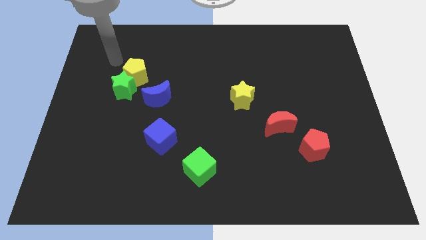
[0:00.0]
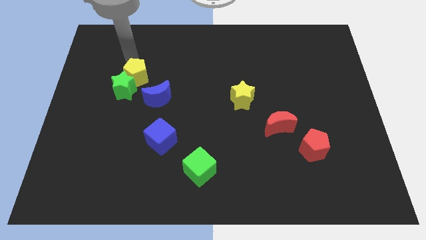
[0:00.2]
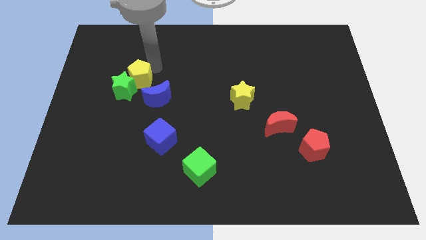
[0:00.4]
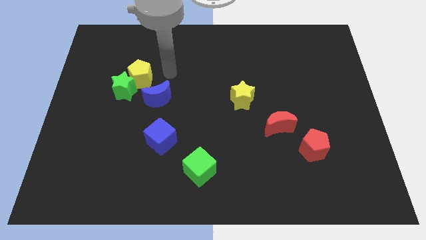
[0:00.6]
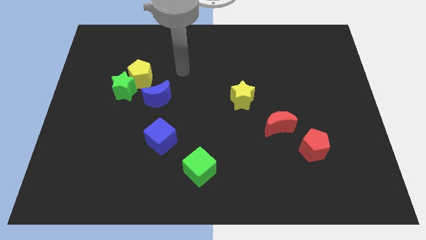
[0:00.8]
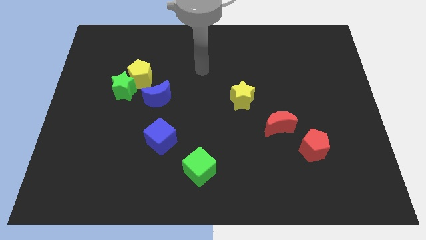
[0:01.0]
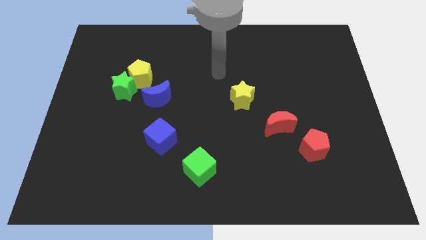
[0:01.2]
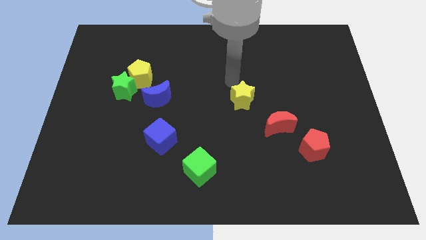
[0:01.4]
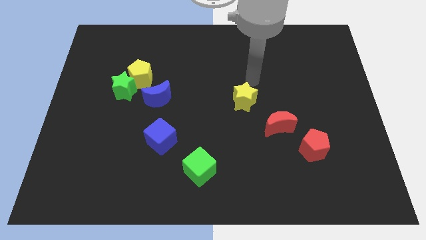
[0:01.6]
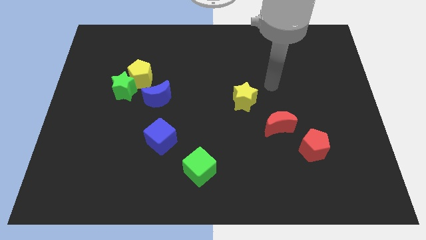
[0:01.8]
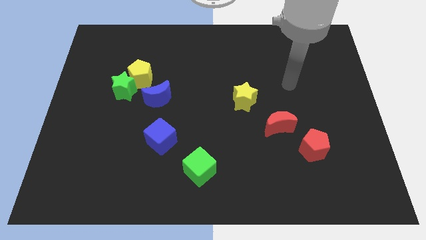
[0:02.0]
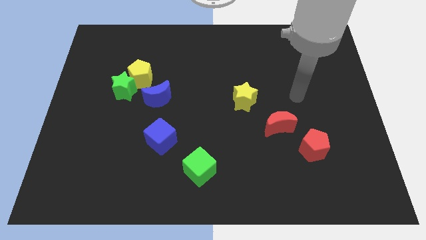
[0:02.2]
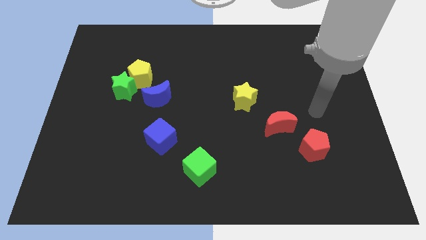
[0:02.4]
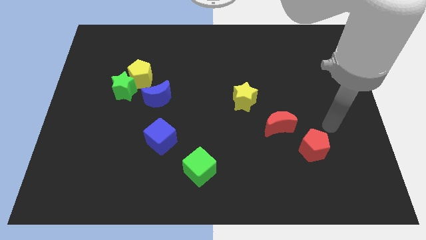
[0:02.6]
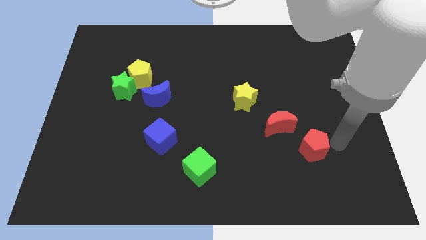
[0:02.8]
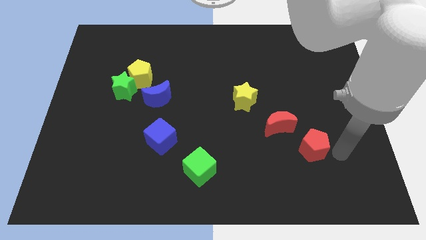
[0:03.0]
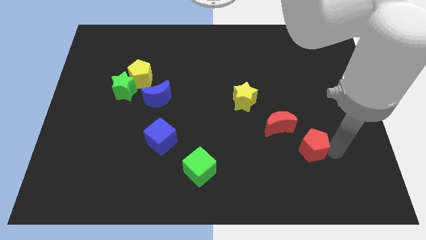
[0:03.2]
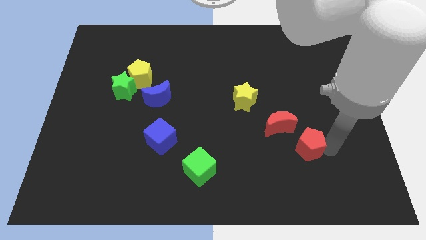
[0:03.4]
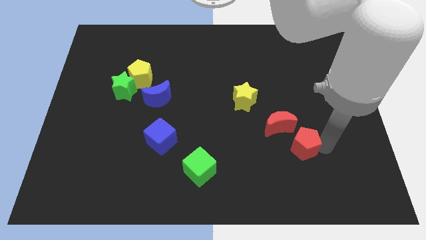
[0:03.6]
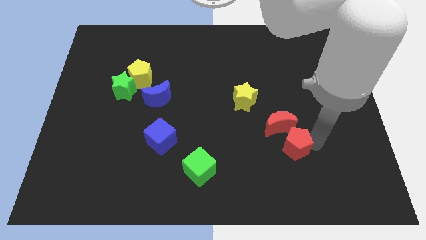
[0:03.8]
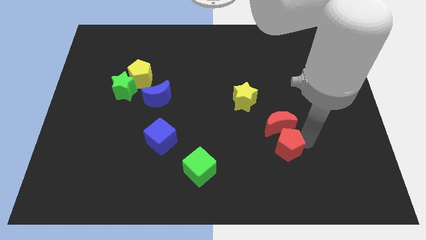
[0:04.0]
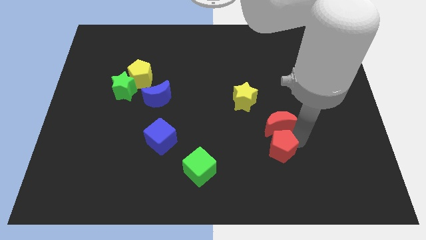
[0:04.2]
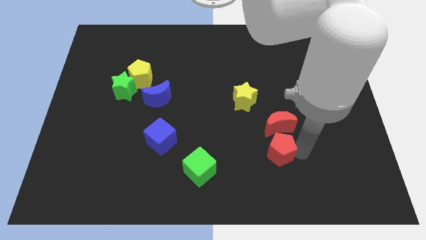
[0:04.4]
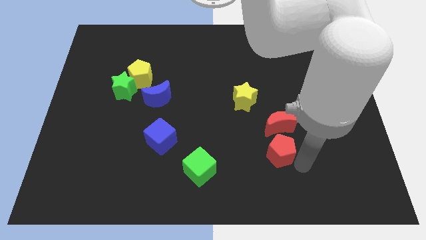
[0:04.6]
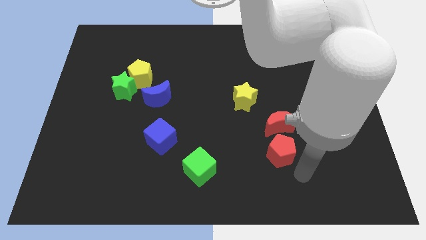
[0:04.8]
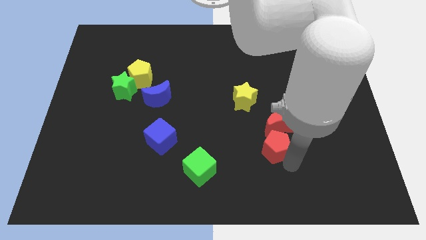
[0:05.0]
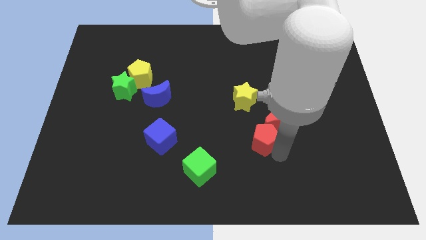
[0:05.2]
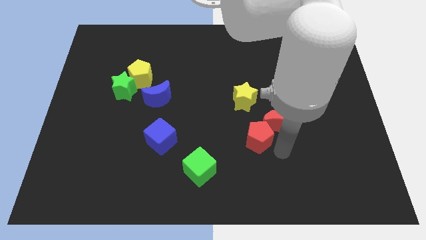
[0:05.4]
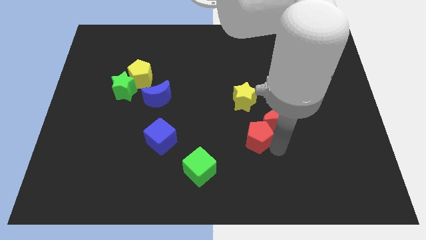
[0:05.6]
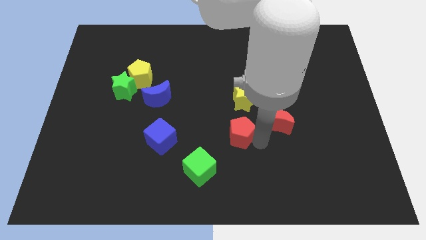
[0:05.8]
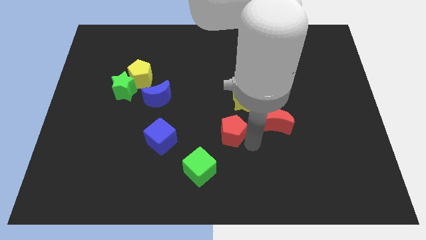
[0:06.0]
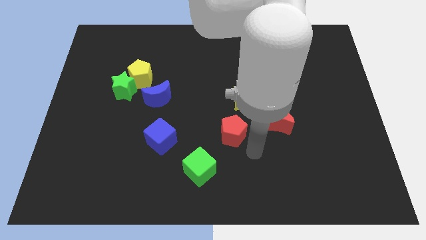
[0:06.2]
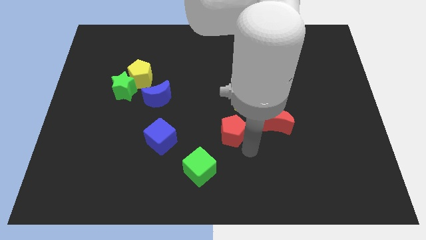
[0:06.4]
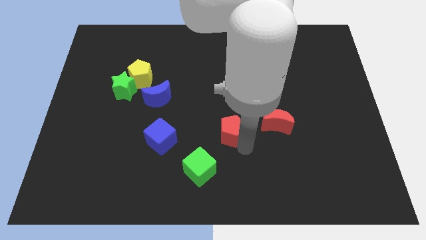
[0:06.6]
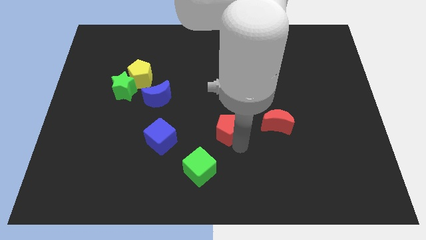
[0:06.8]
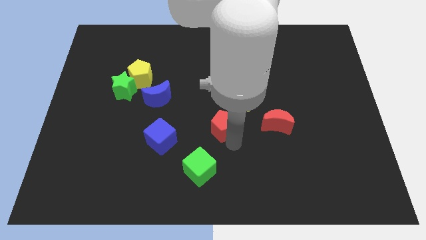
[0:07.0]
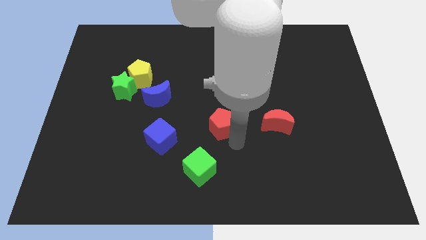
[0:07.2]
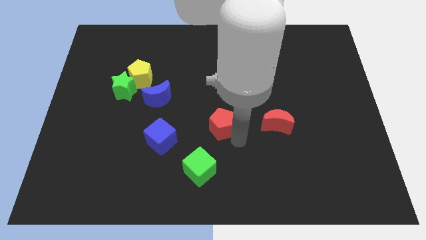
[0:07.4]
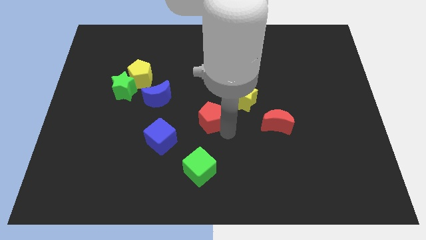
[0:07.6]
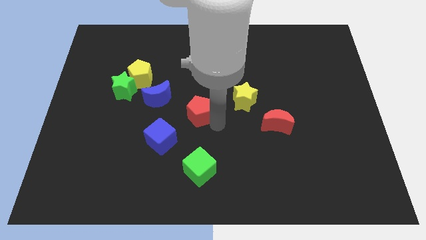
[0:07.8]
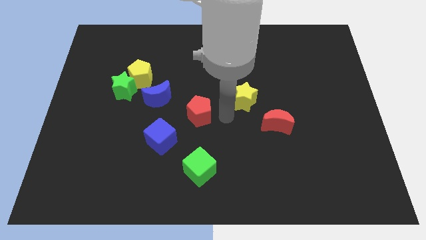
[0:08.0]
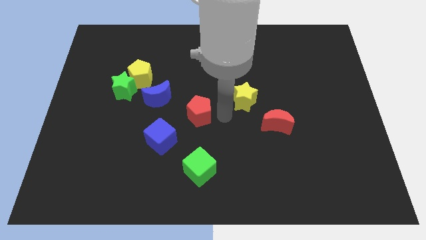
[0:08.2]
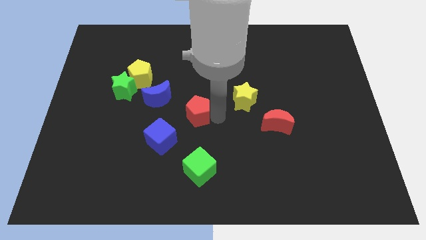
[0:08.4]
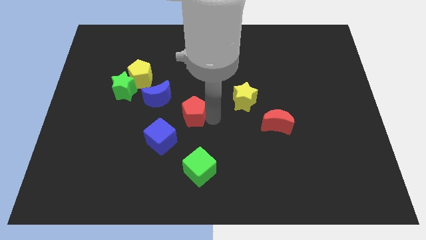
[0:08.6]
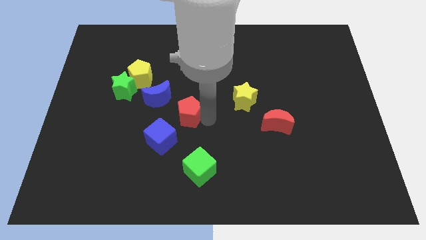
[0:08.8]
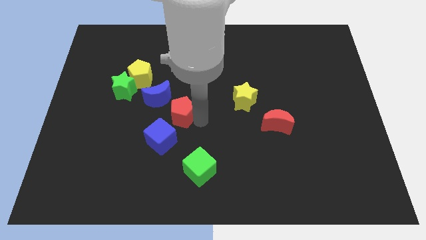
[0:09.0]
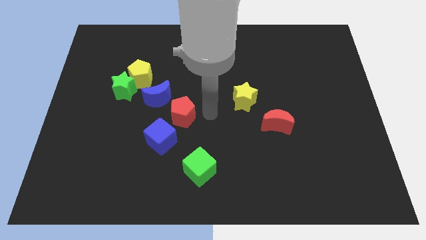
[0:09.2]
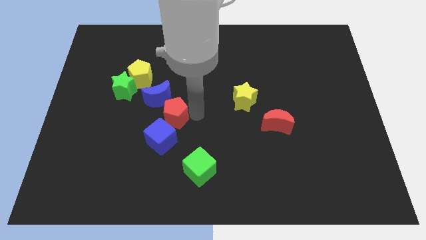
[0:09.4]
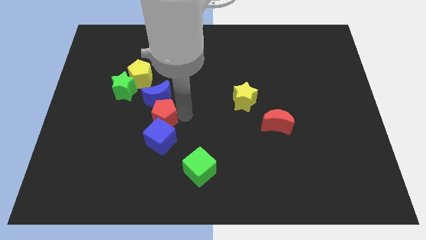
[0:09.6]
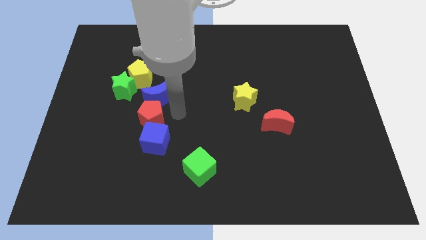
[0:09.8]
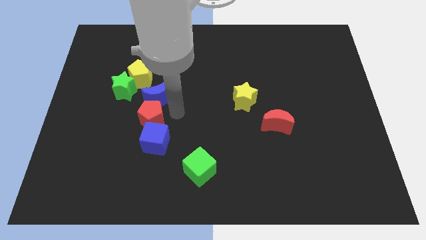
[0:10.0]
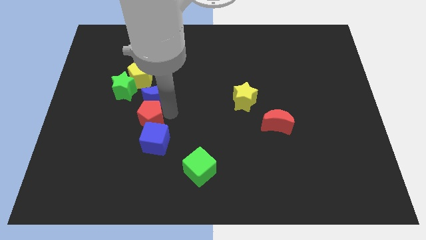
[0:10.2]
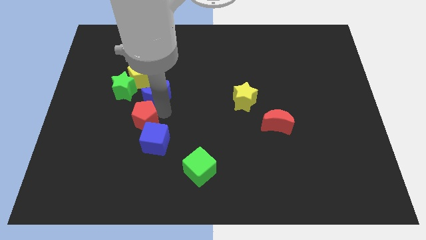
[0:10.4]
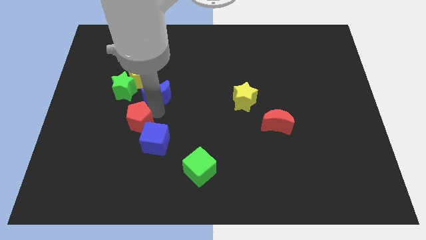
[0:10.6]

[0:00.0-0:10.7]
slide the red pentagon to the bottom of the green star

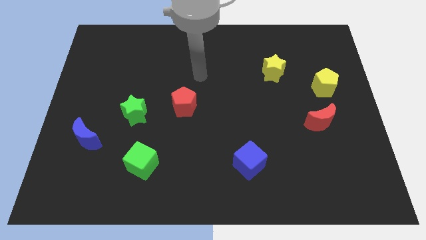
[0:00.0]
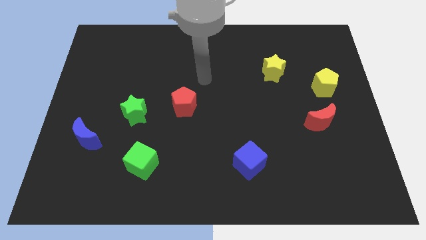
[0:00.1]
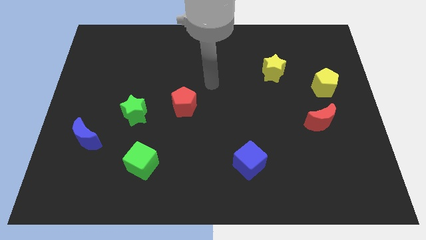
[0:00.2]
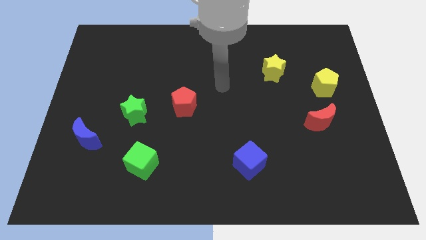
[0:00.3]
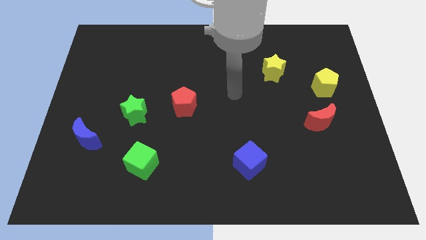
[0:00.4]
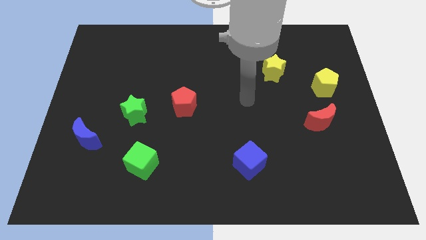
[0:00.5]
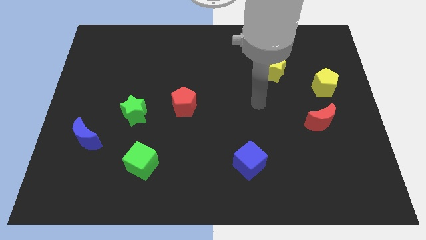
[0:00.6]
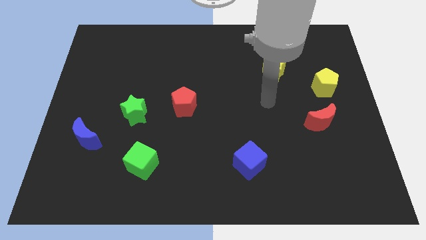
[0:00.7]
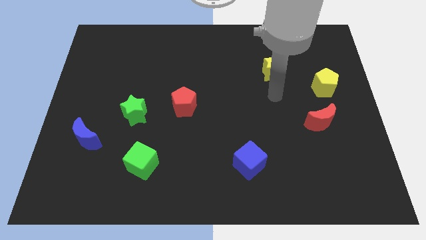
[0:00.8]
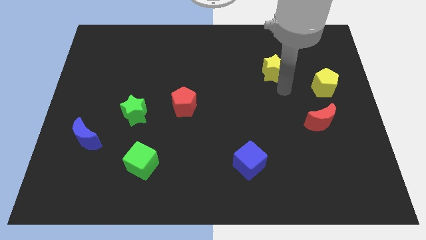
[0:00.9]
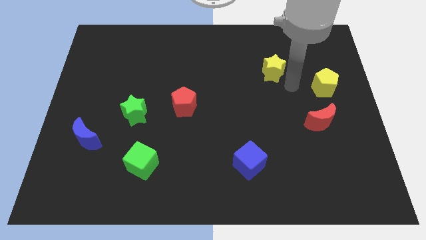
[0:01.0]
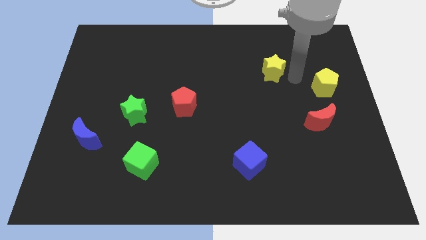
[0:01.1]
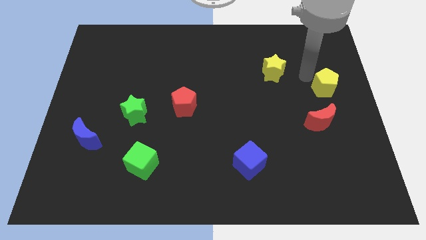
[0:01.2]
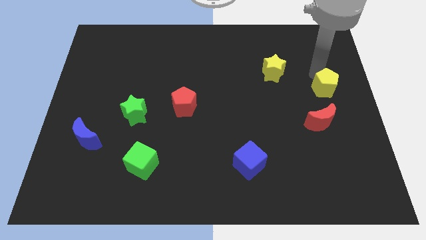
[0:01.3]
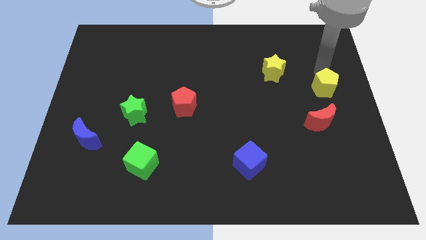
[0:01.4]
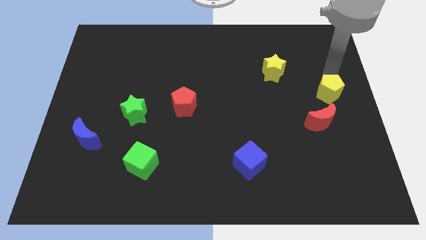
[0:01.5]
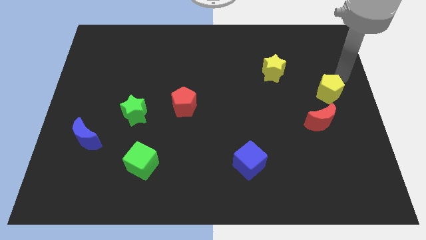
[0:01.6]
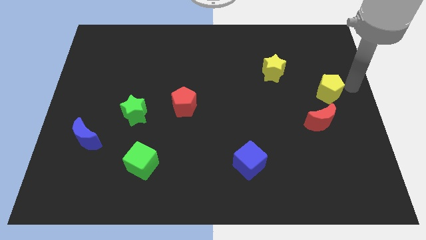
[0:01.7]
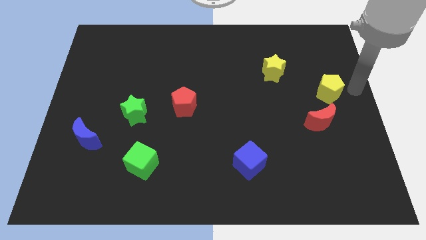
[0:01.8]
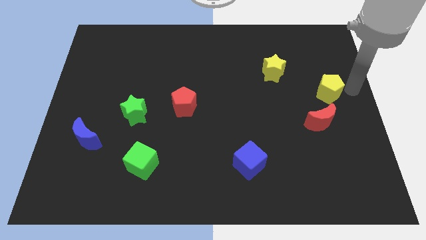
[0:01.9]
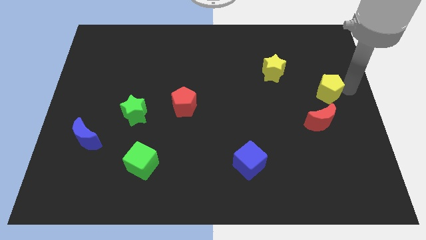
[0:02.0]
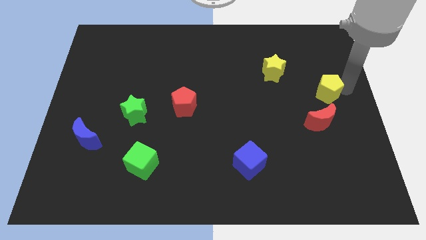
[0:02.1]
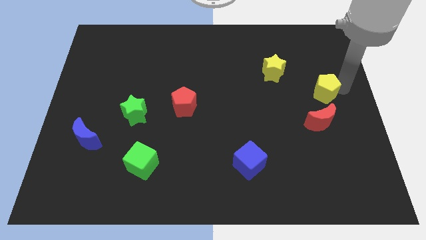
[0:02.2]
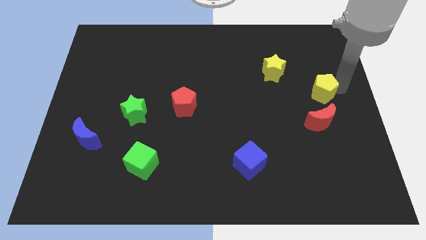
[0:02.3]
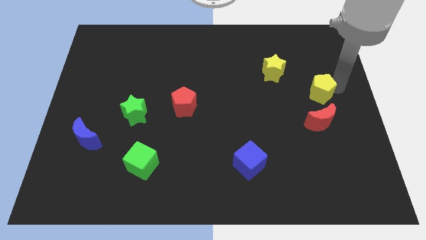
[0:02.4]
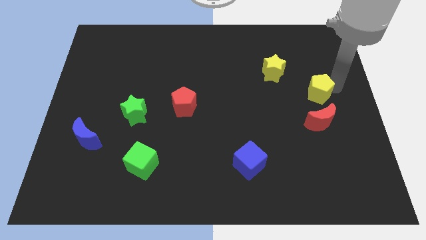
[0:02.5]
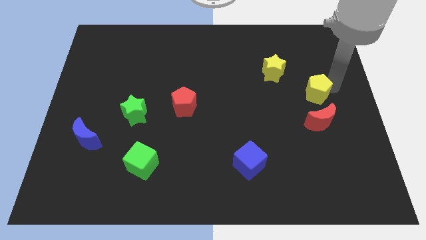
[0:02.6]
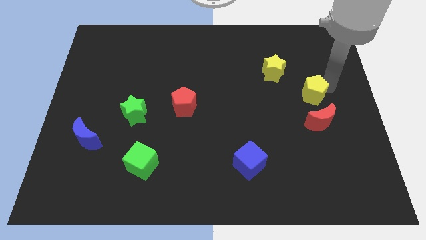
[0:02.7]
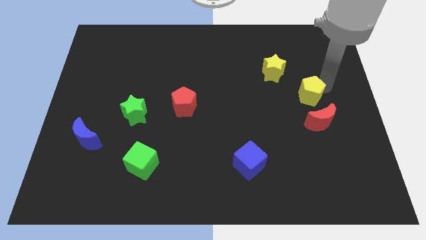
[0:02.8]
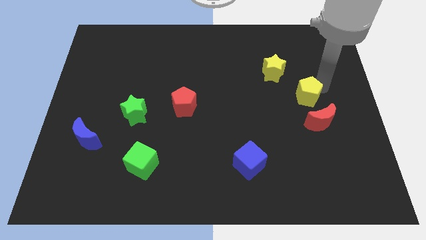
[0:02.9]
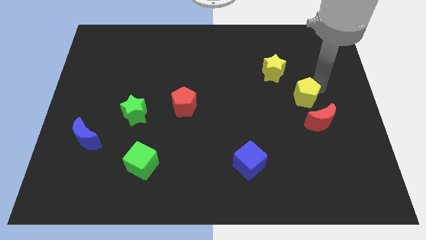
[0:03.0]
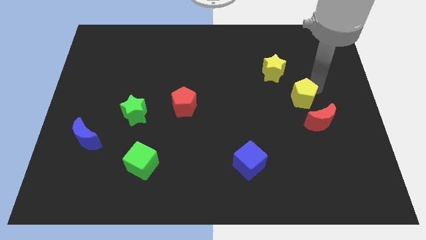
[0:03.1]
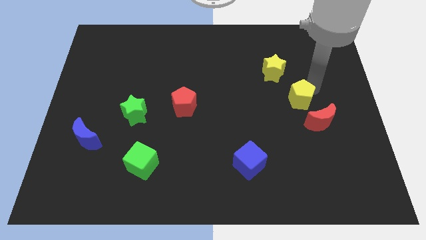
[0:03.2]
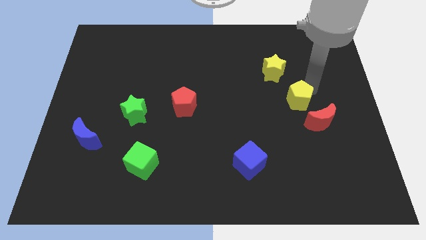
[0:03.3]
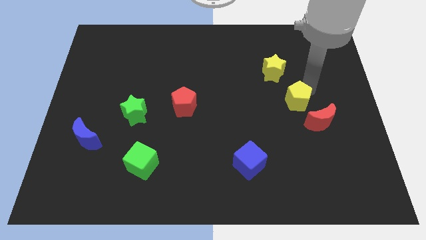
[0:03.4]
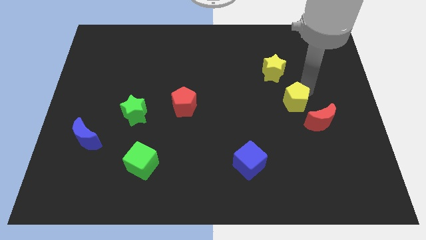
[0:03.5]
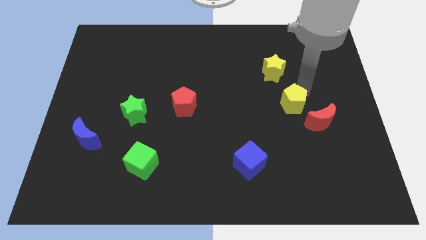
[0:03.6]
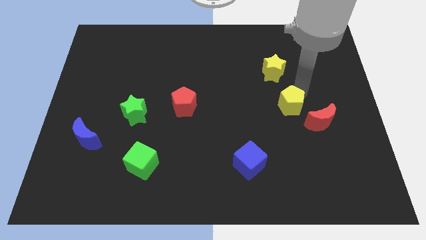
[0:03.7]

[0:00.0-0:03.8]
push the yellow pentagon just left of the red moon
